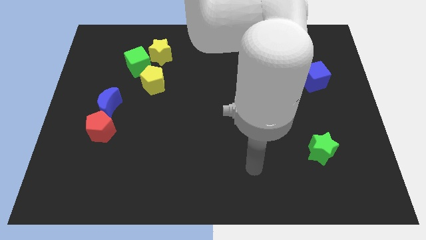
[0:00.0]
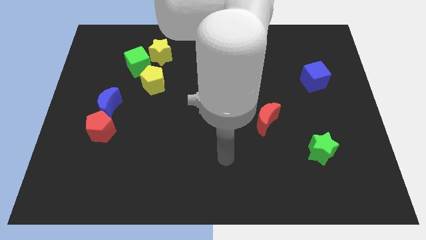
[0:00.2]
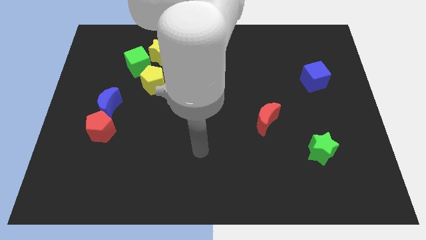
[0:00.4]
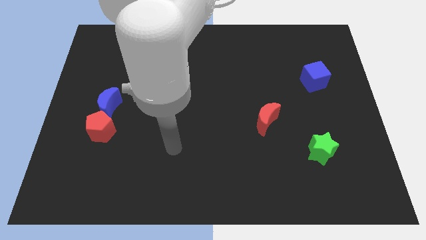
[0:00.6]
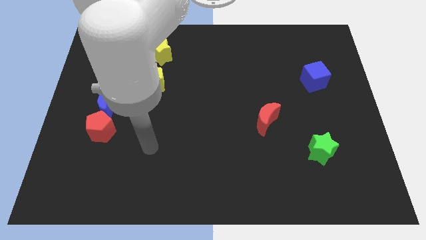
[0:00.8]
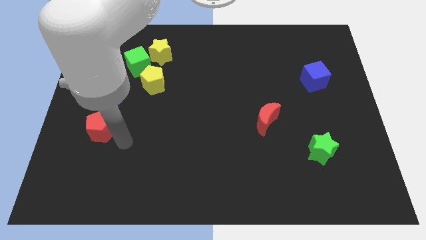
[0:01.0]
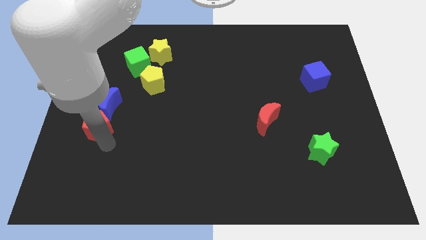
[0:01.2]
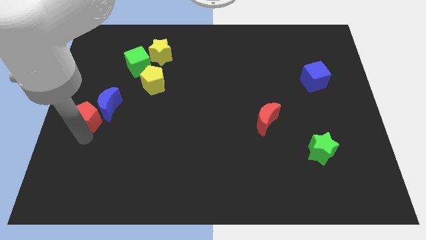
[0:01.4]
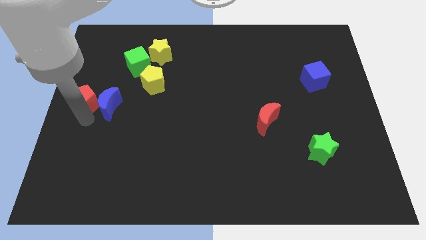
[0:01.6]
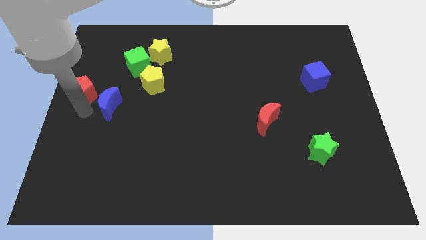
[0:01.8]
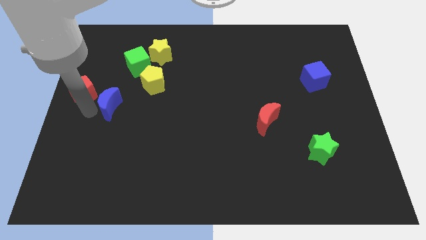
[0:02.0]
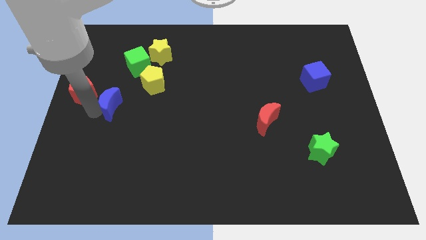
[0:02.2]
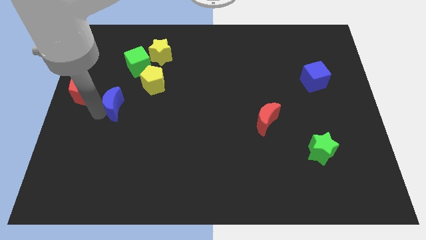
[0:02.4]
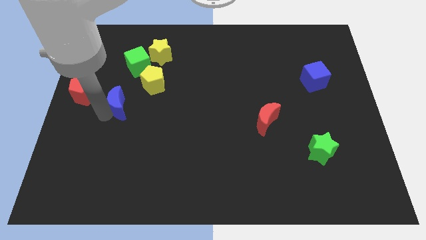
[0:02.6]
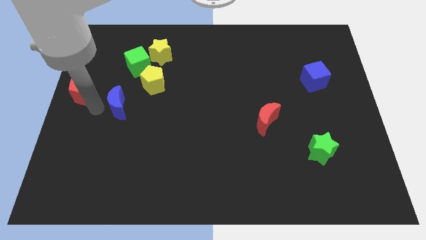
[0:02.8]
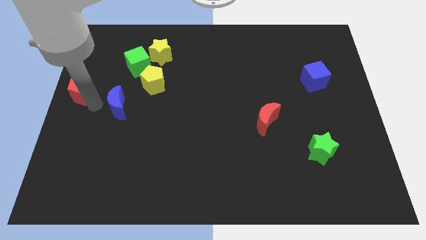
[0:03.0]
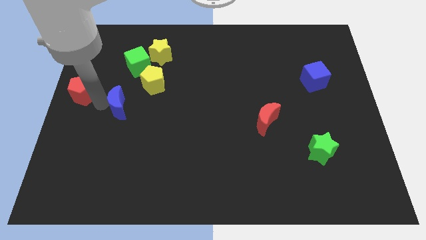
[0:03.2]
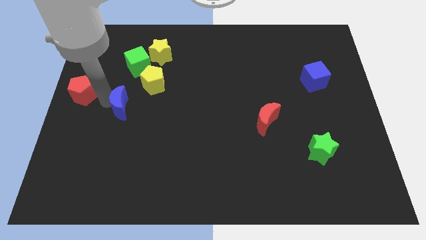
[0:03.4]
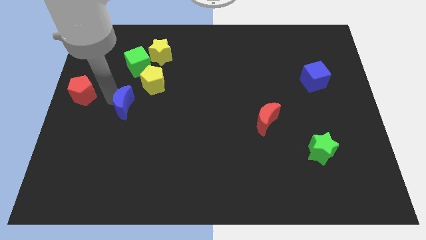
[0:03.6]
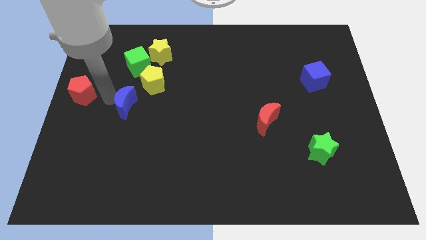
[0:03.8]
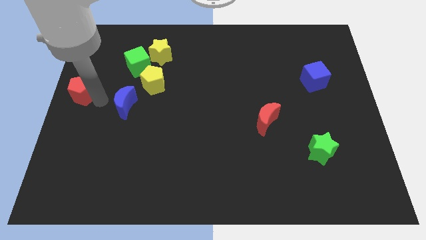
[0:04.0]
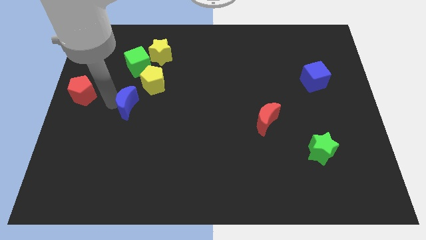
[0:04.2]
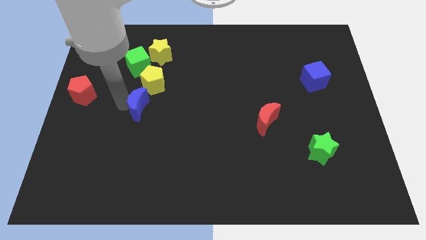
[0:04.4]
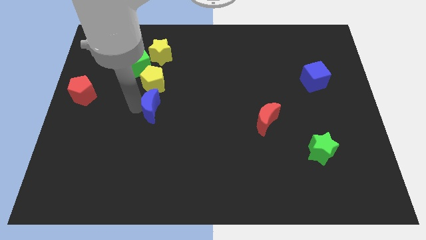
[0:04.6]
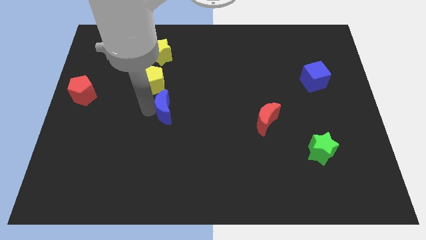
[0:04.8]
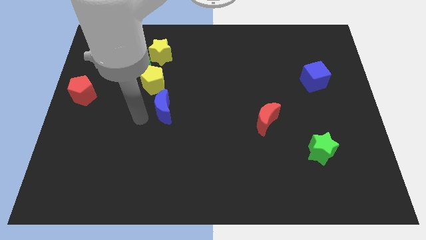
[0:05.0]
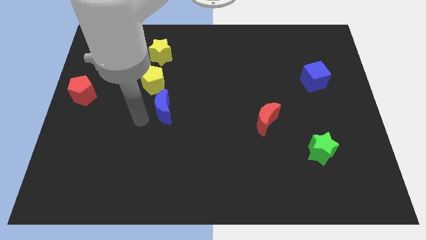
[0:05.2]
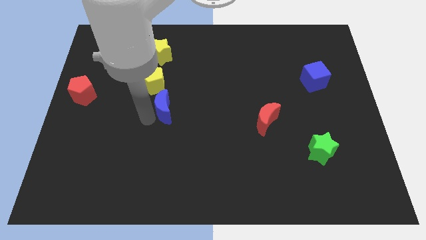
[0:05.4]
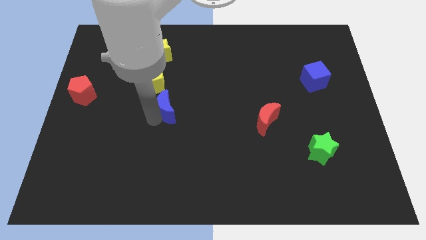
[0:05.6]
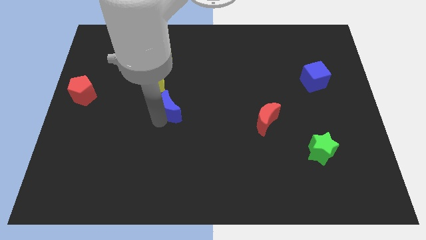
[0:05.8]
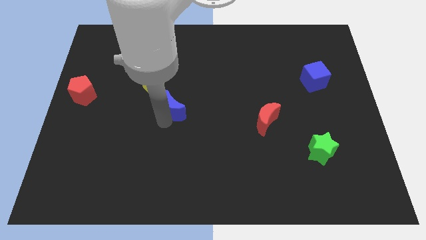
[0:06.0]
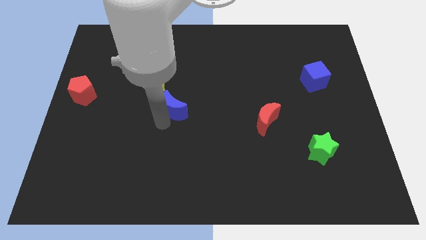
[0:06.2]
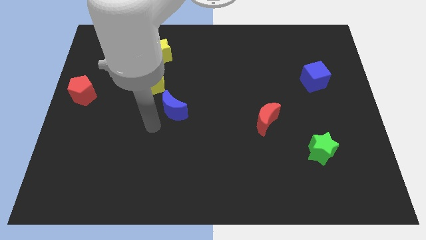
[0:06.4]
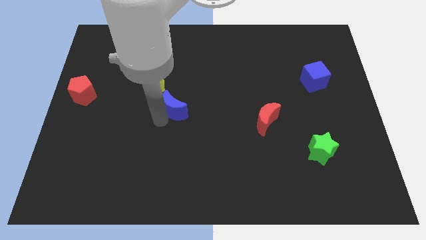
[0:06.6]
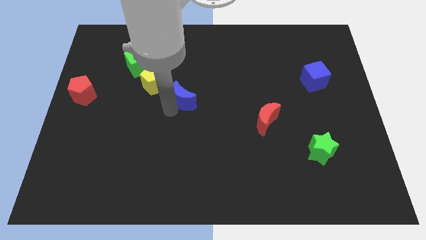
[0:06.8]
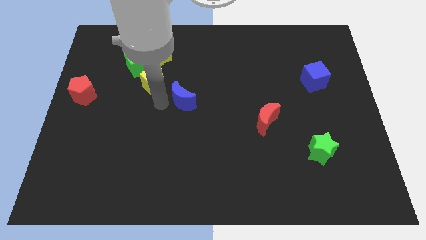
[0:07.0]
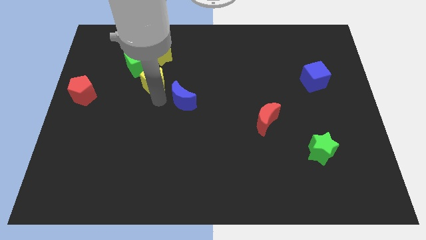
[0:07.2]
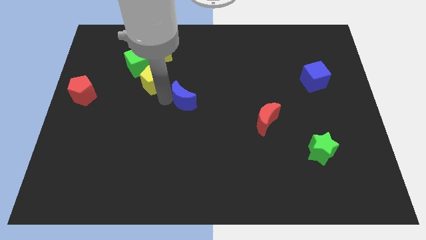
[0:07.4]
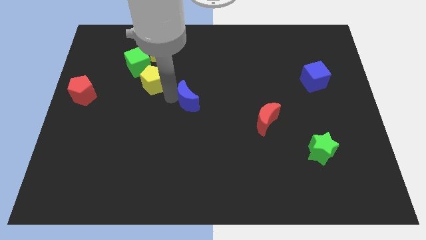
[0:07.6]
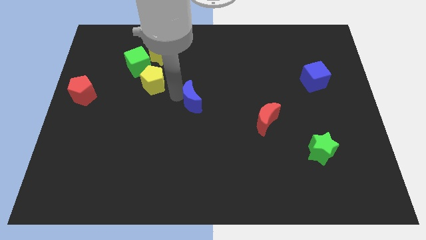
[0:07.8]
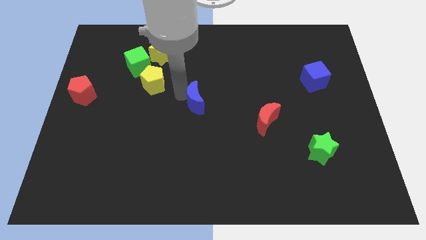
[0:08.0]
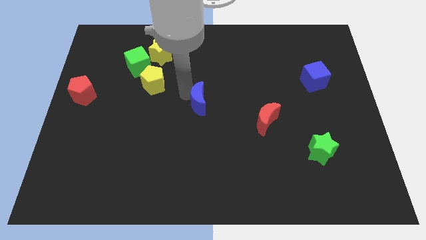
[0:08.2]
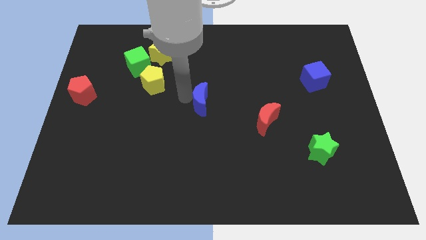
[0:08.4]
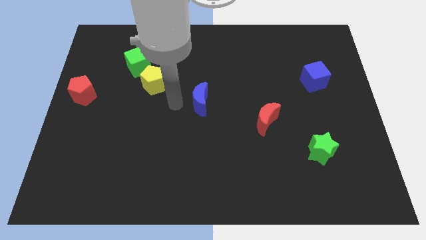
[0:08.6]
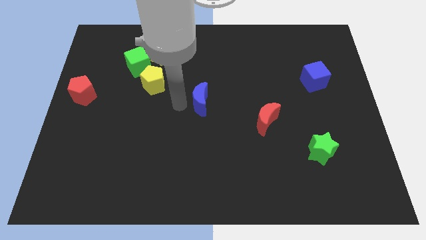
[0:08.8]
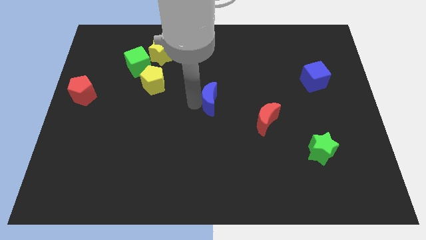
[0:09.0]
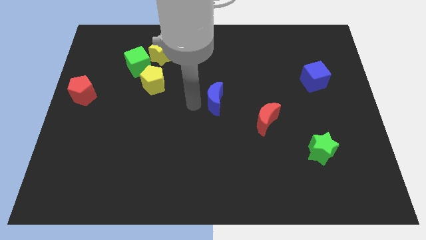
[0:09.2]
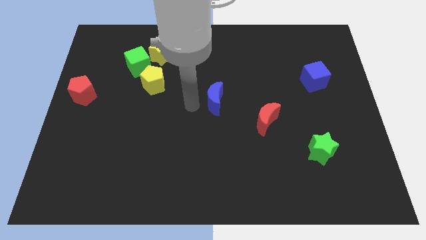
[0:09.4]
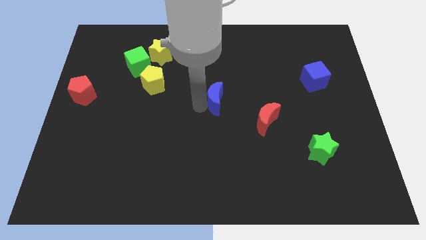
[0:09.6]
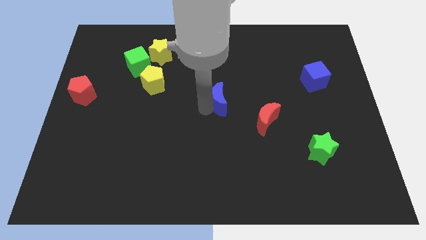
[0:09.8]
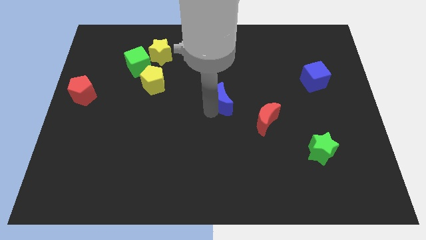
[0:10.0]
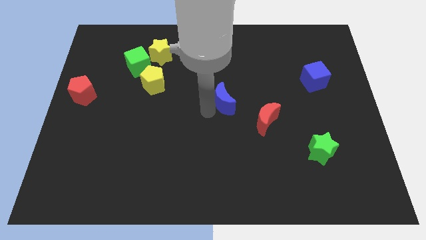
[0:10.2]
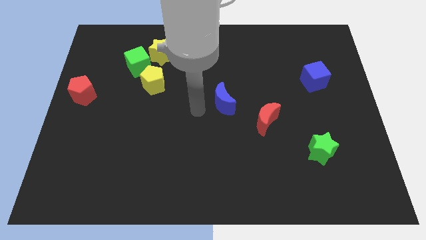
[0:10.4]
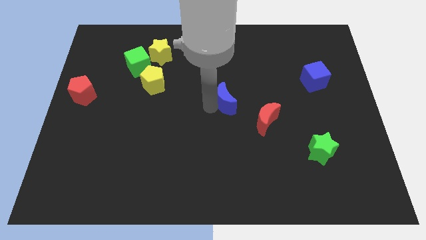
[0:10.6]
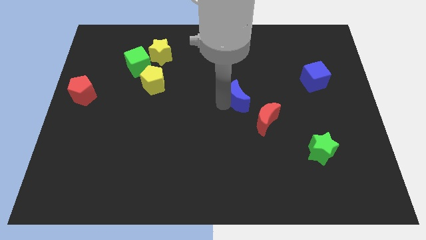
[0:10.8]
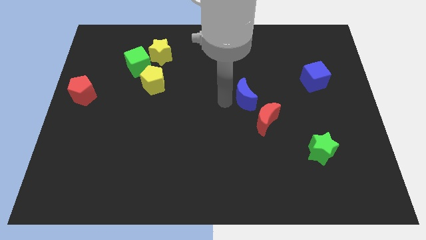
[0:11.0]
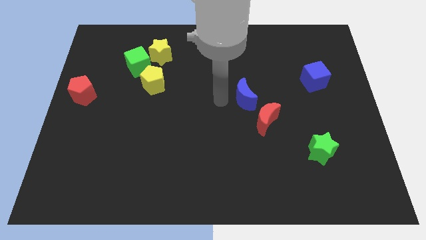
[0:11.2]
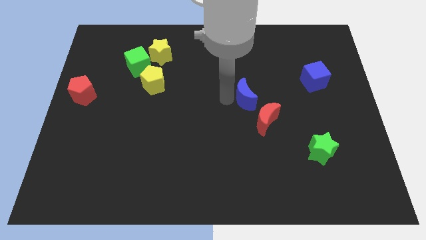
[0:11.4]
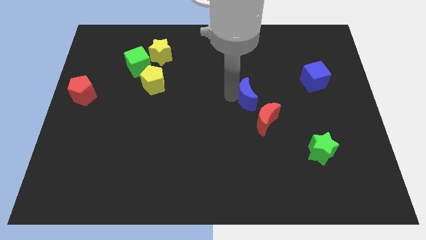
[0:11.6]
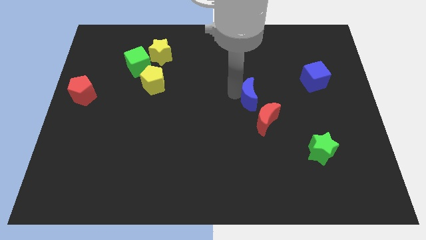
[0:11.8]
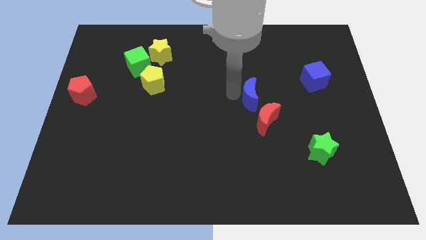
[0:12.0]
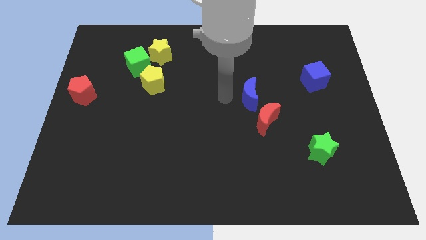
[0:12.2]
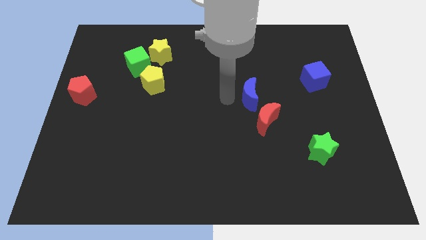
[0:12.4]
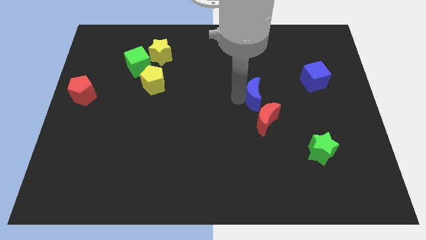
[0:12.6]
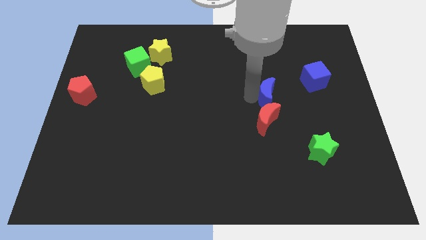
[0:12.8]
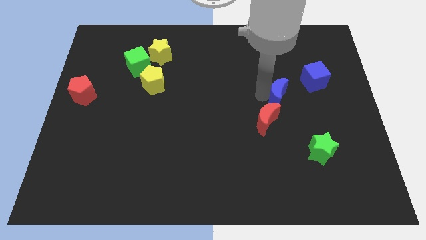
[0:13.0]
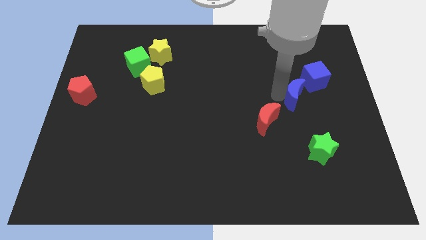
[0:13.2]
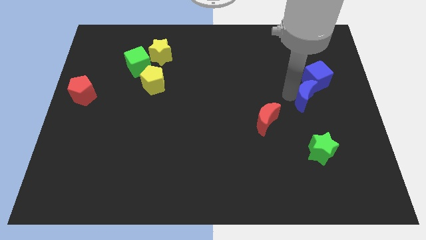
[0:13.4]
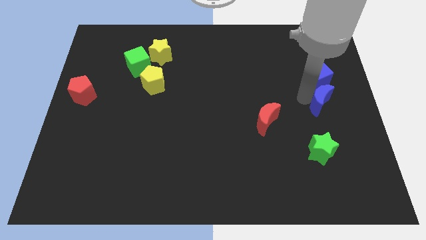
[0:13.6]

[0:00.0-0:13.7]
put the blue moon to the right side
